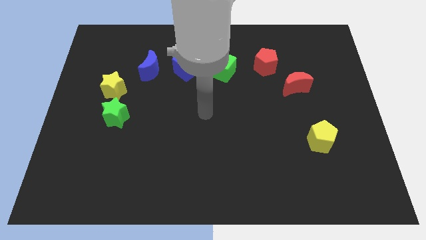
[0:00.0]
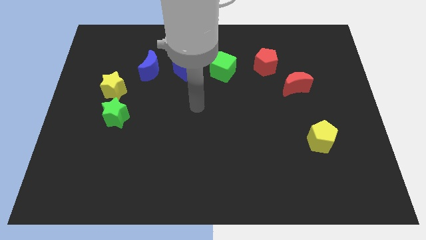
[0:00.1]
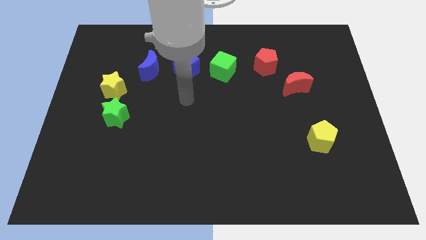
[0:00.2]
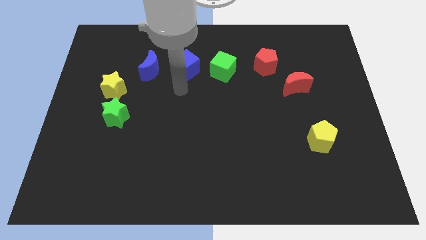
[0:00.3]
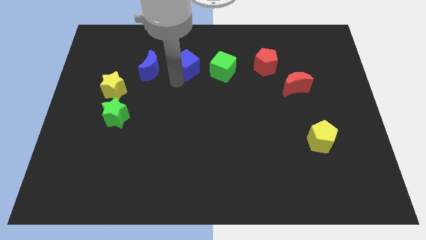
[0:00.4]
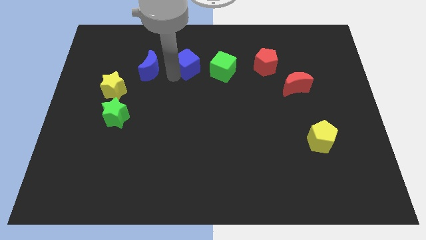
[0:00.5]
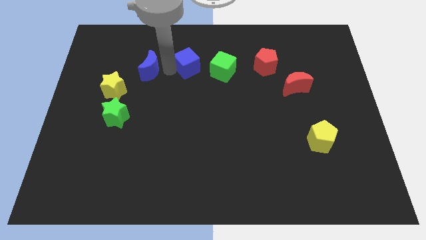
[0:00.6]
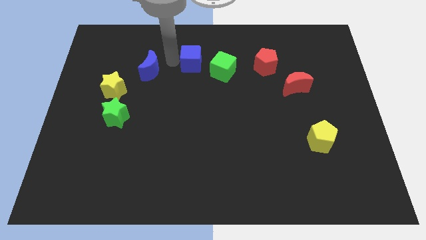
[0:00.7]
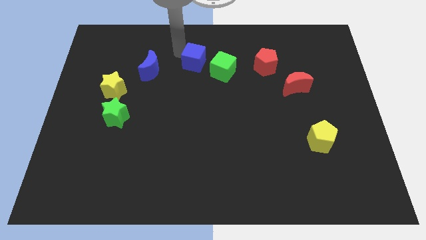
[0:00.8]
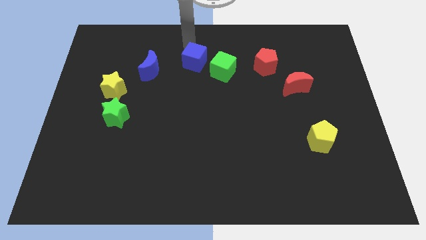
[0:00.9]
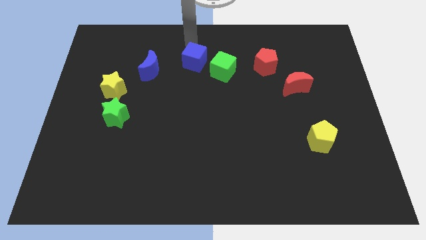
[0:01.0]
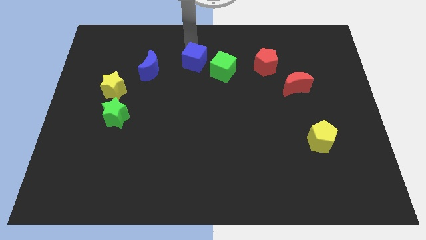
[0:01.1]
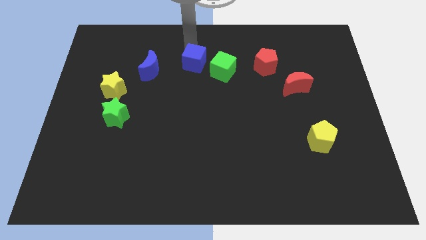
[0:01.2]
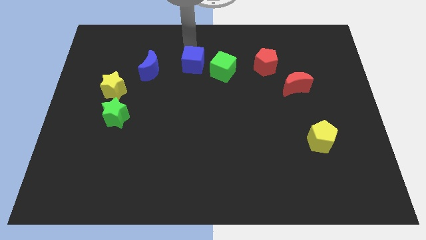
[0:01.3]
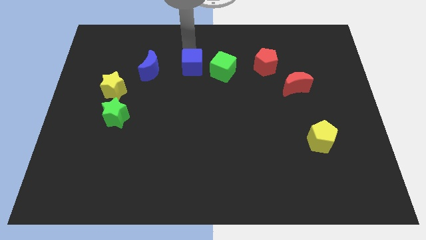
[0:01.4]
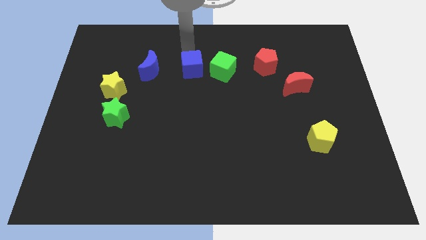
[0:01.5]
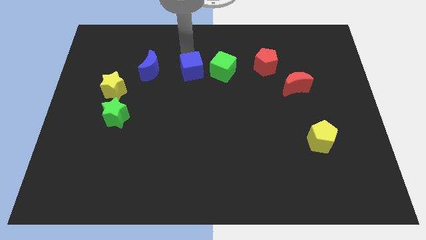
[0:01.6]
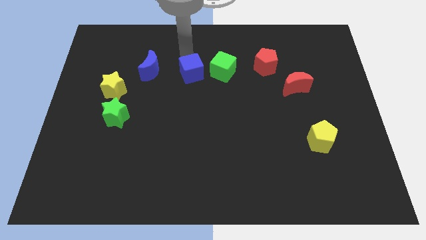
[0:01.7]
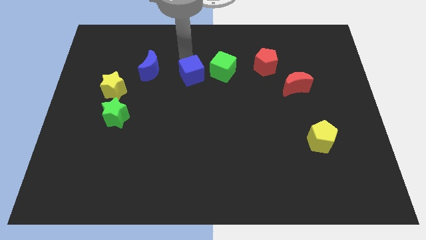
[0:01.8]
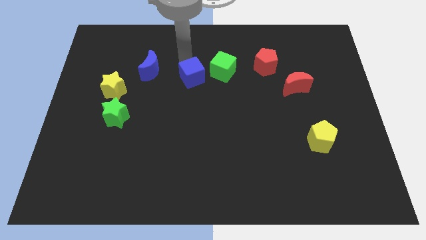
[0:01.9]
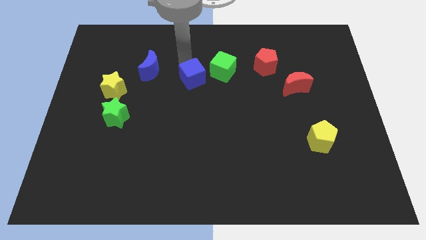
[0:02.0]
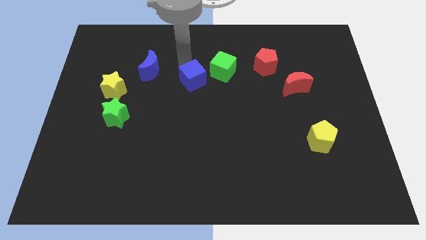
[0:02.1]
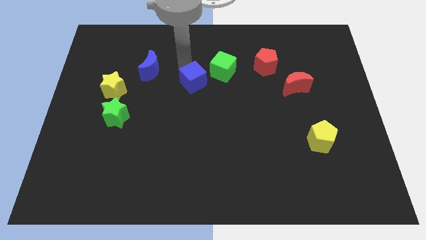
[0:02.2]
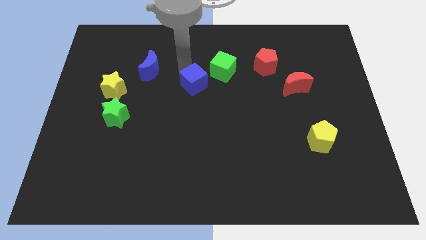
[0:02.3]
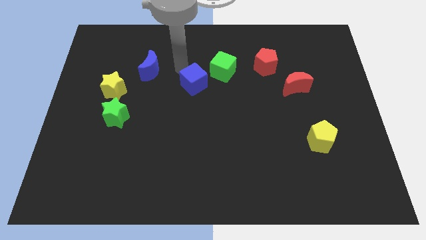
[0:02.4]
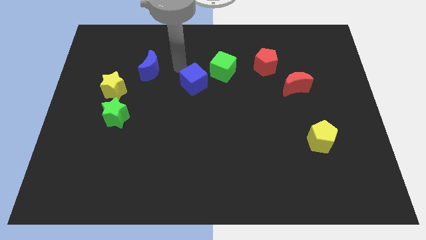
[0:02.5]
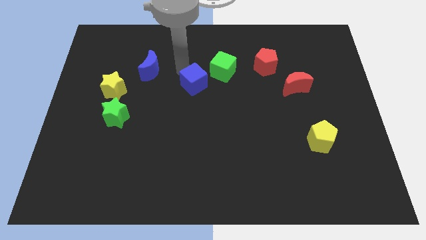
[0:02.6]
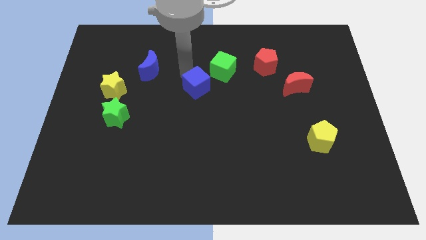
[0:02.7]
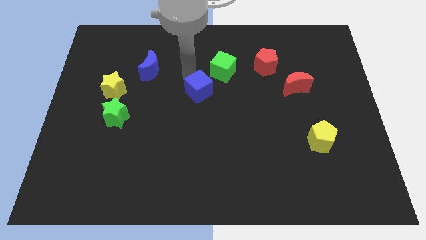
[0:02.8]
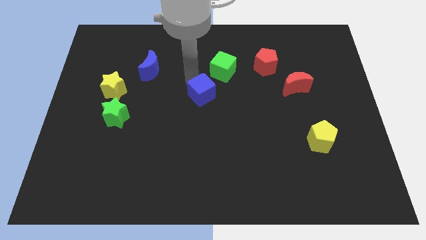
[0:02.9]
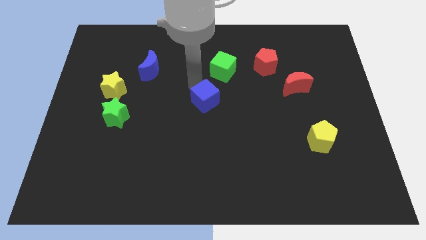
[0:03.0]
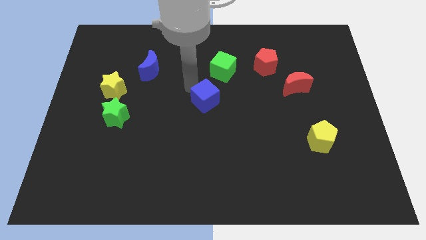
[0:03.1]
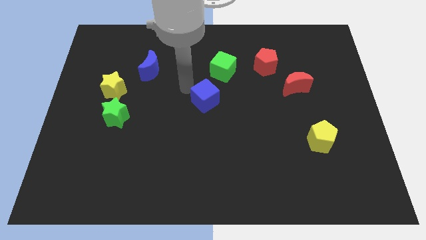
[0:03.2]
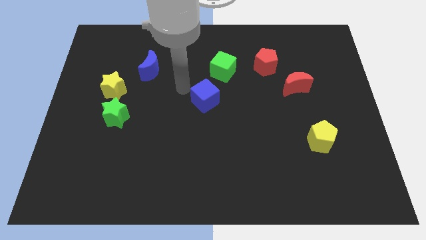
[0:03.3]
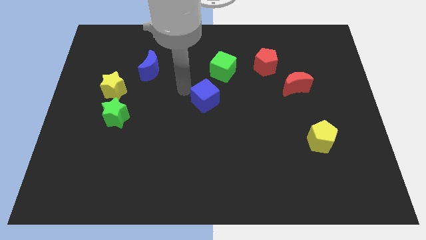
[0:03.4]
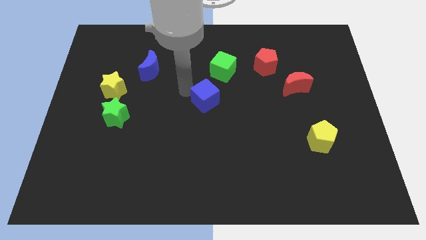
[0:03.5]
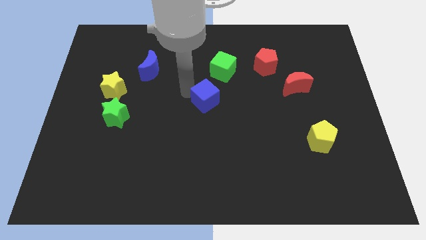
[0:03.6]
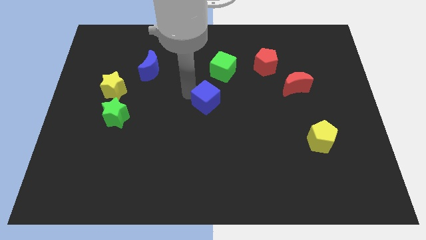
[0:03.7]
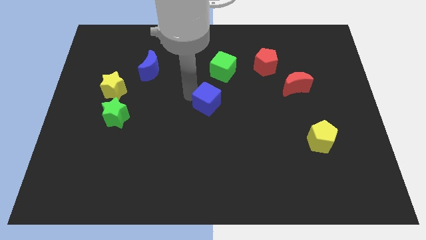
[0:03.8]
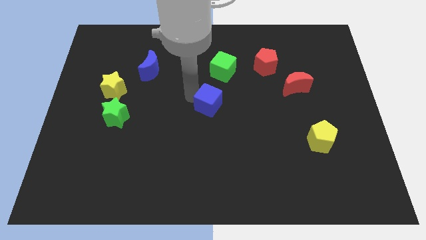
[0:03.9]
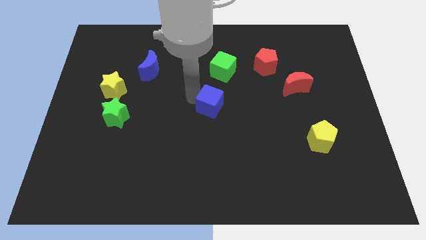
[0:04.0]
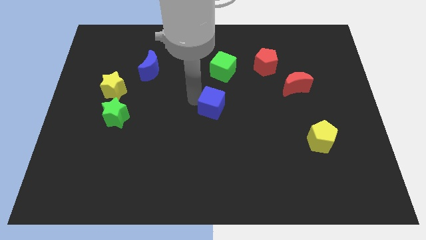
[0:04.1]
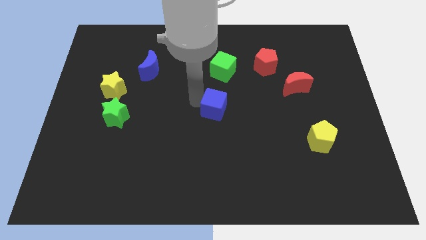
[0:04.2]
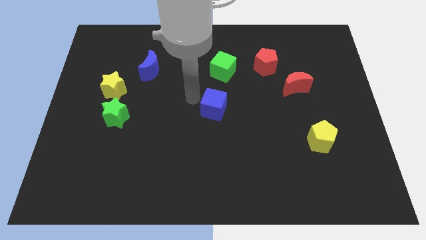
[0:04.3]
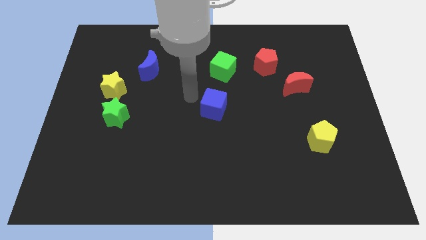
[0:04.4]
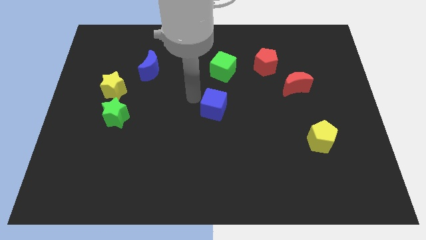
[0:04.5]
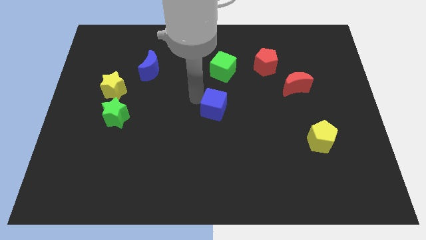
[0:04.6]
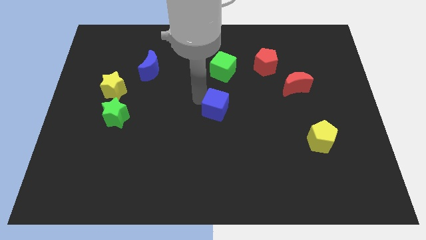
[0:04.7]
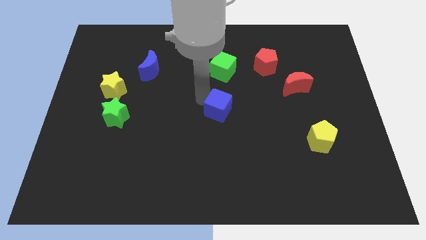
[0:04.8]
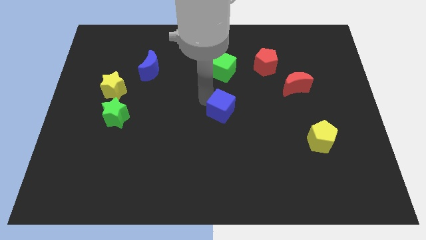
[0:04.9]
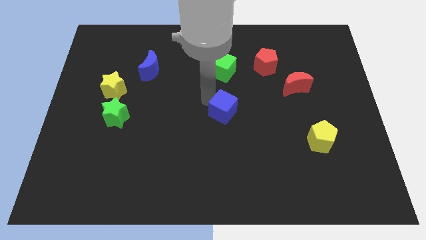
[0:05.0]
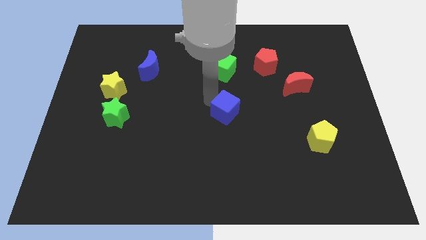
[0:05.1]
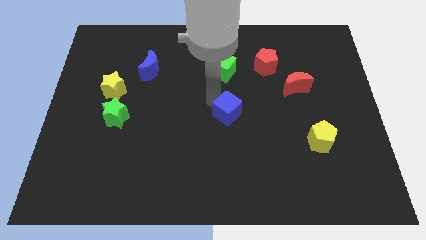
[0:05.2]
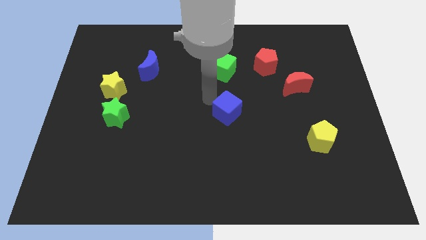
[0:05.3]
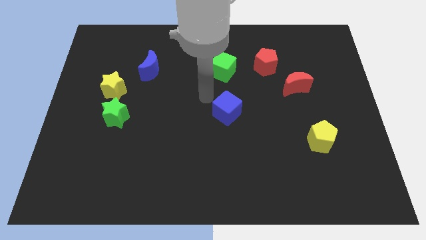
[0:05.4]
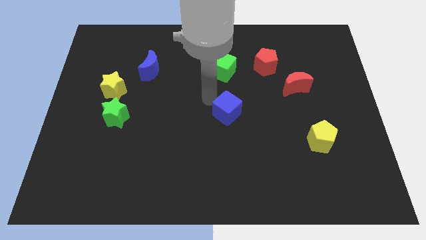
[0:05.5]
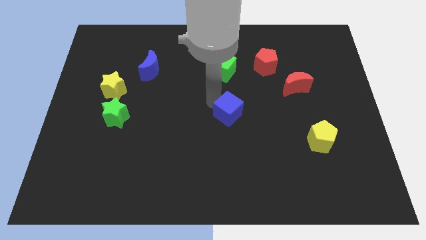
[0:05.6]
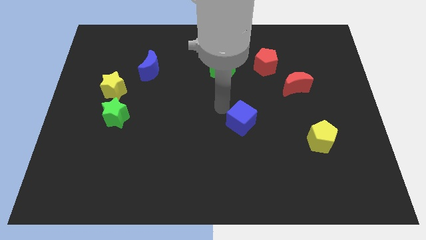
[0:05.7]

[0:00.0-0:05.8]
slide the blue cube diagonally down and right

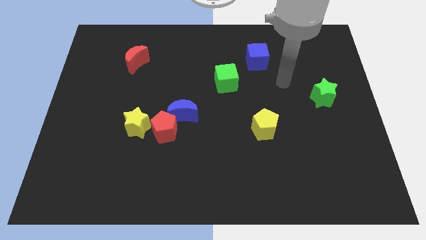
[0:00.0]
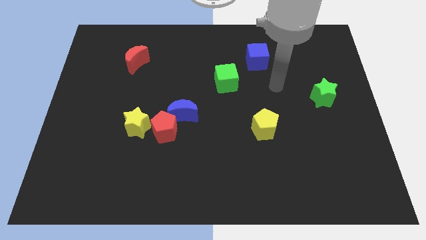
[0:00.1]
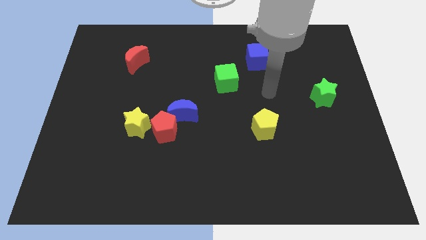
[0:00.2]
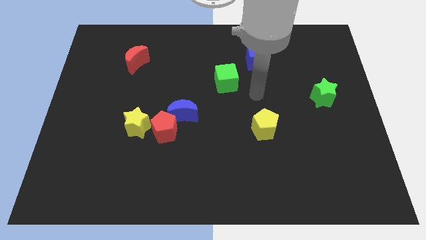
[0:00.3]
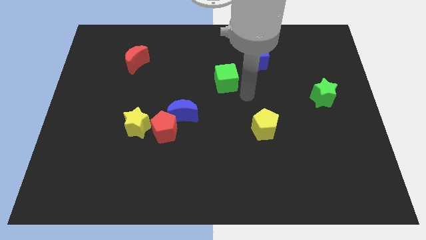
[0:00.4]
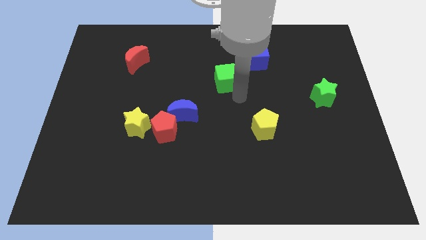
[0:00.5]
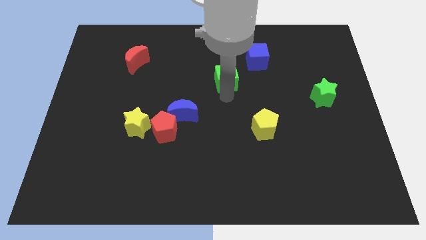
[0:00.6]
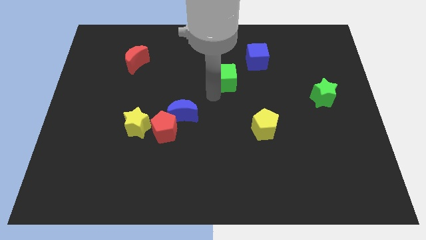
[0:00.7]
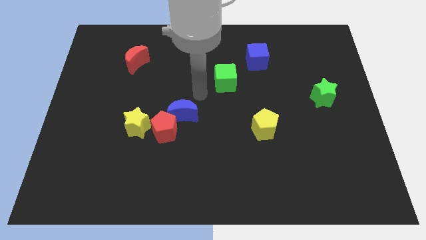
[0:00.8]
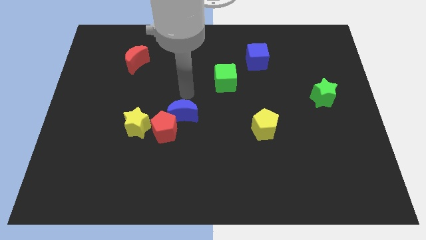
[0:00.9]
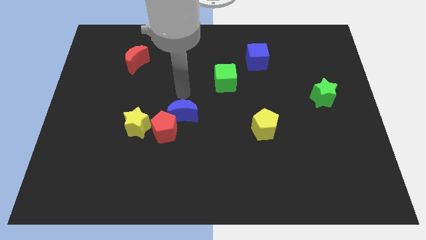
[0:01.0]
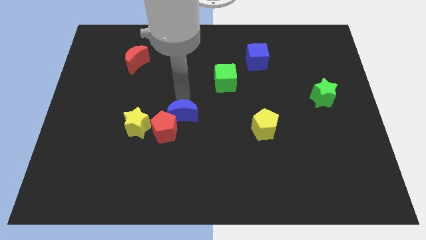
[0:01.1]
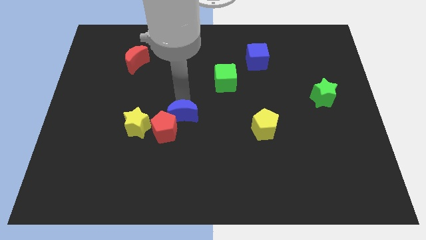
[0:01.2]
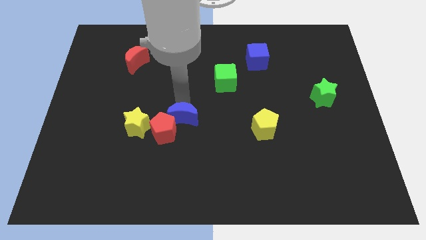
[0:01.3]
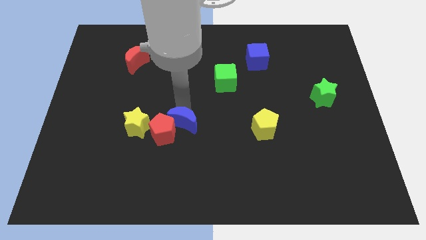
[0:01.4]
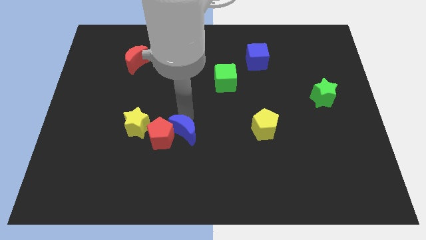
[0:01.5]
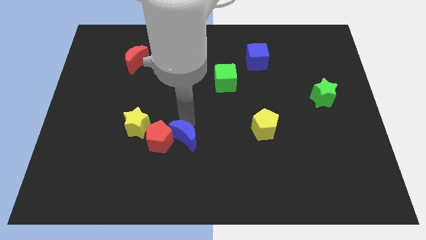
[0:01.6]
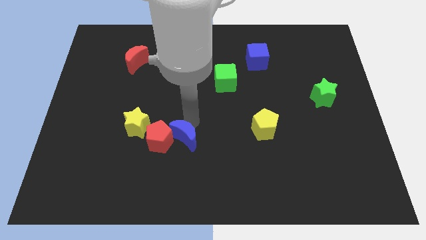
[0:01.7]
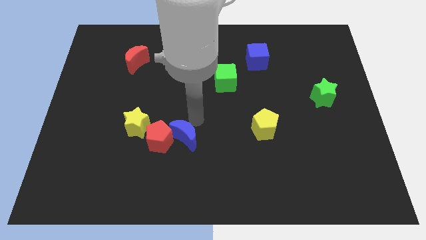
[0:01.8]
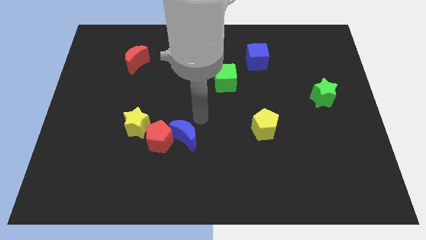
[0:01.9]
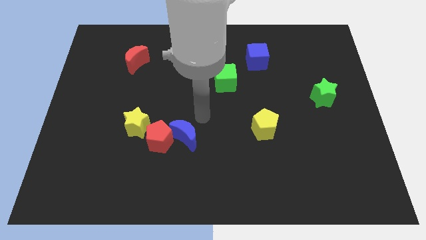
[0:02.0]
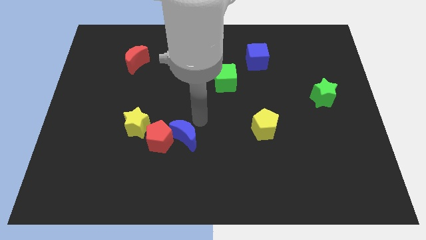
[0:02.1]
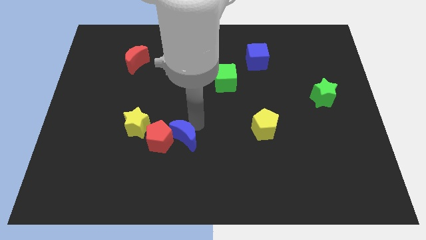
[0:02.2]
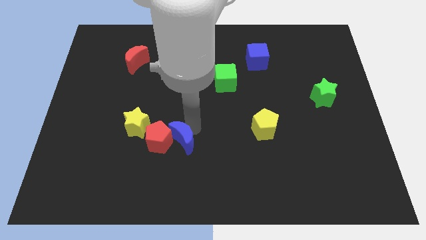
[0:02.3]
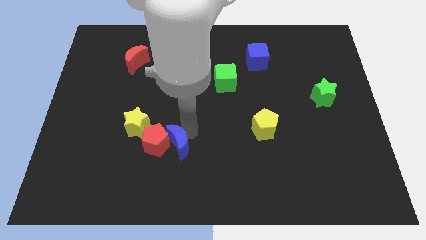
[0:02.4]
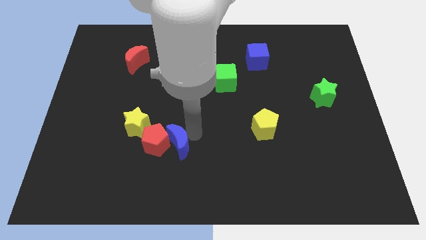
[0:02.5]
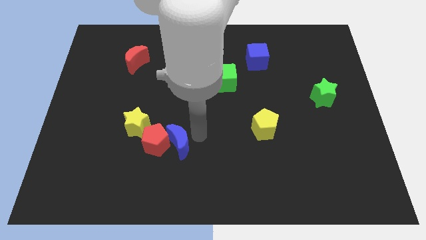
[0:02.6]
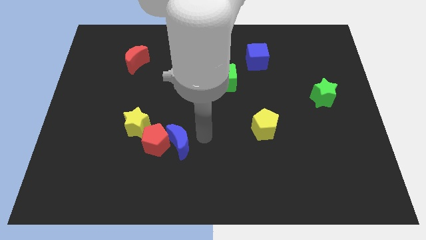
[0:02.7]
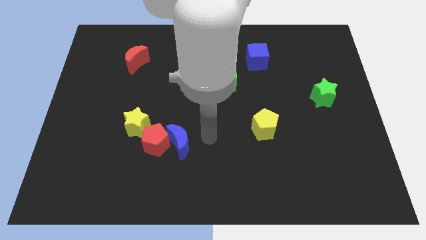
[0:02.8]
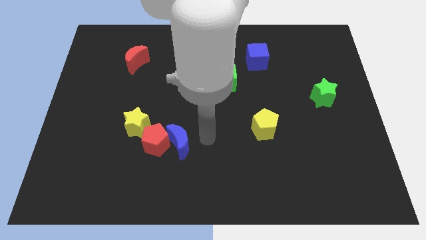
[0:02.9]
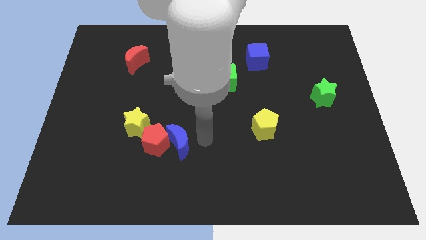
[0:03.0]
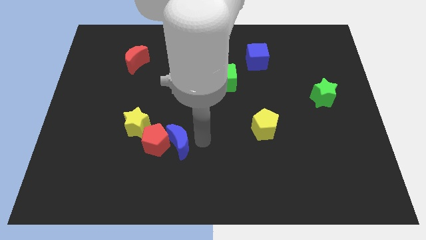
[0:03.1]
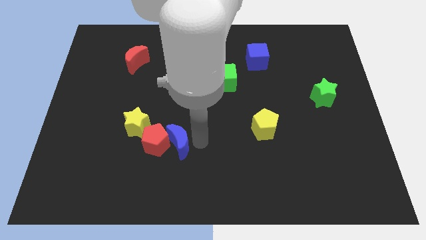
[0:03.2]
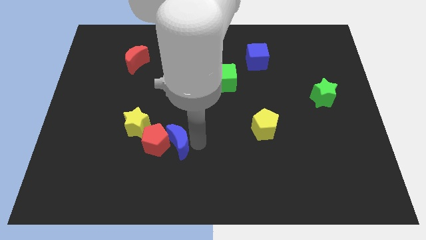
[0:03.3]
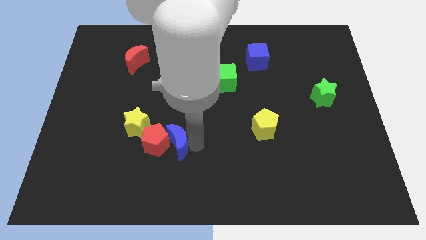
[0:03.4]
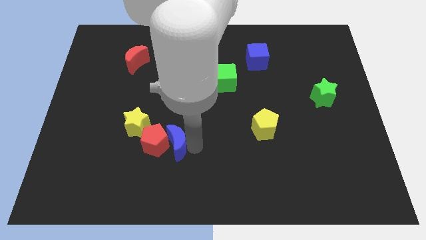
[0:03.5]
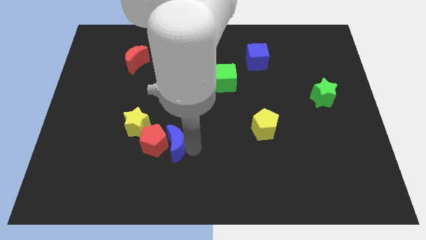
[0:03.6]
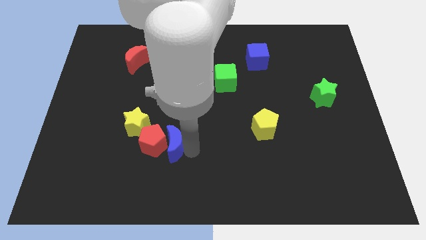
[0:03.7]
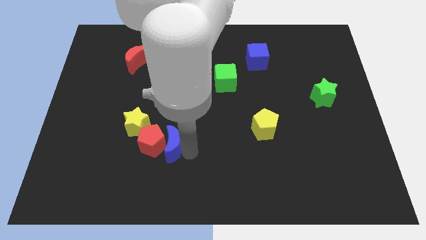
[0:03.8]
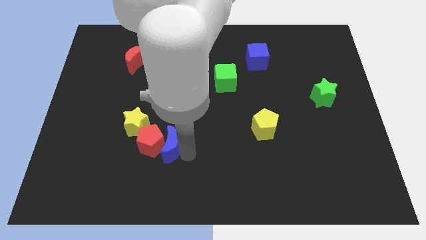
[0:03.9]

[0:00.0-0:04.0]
slightly slide the blue moon diagonally downwards and left
